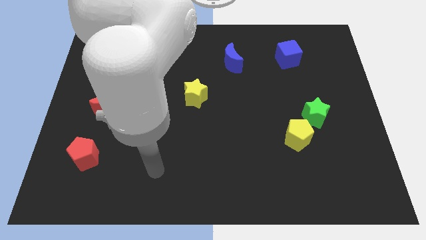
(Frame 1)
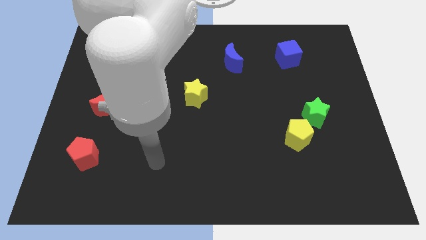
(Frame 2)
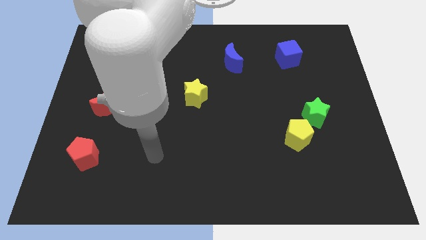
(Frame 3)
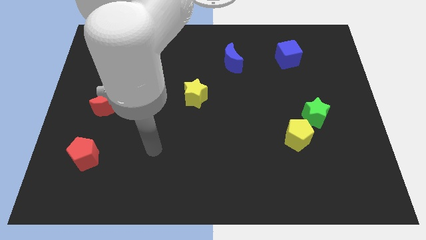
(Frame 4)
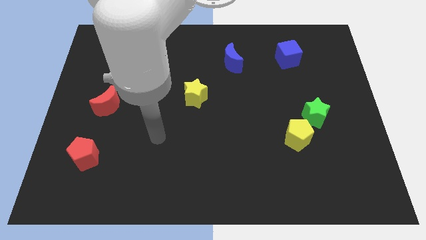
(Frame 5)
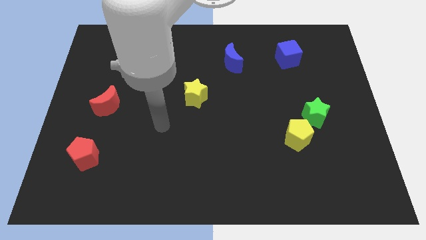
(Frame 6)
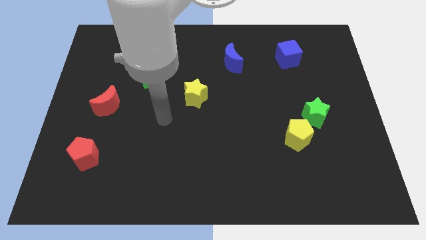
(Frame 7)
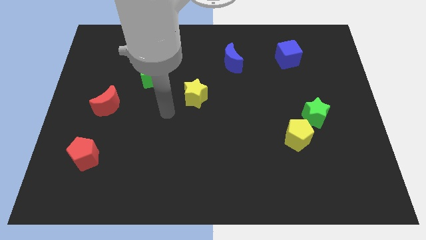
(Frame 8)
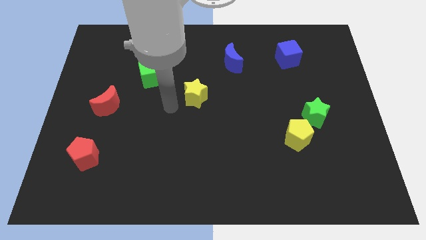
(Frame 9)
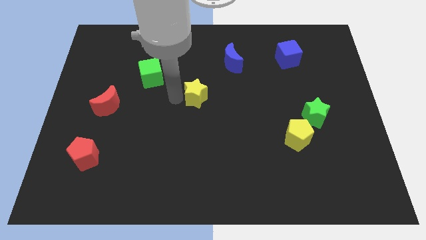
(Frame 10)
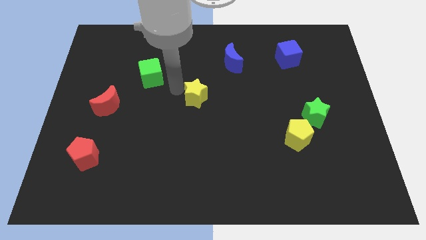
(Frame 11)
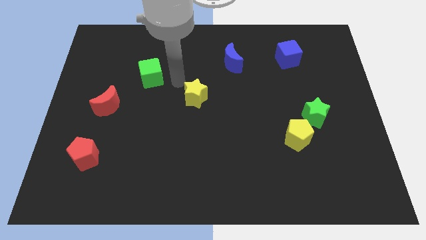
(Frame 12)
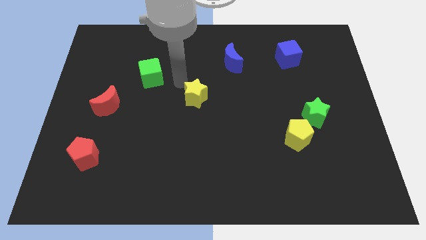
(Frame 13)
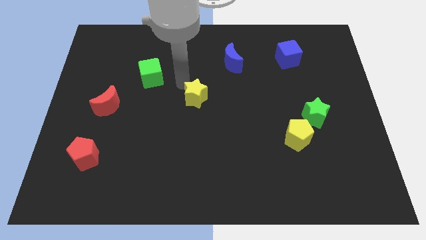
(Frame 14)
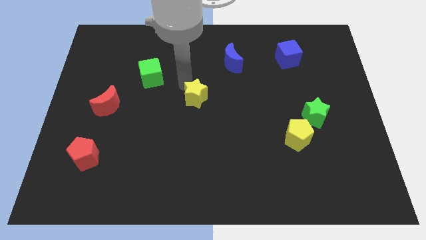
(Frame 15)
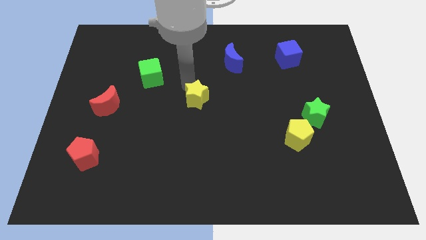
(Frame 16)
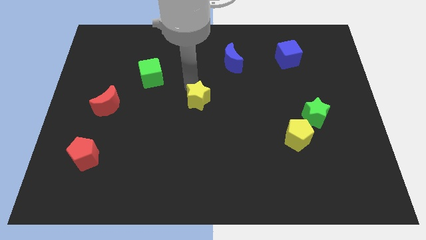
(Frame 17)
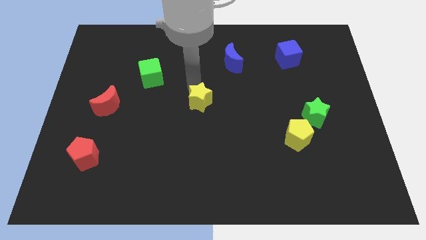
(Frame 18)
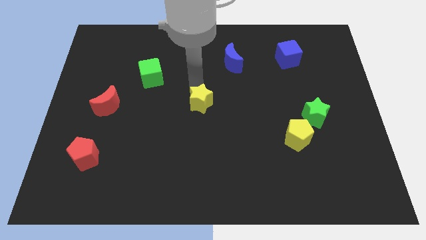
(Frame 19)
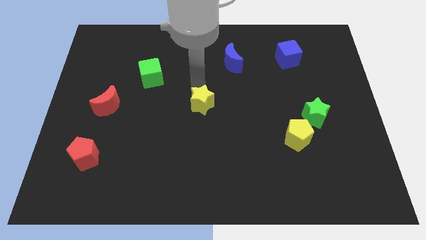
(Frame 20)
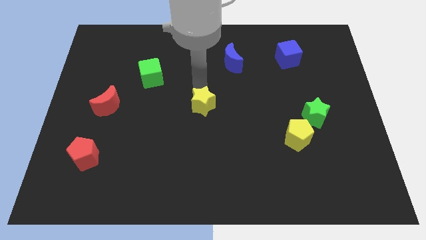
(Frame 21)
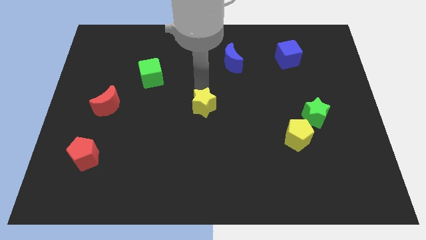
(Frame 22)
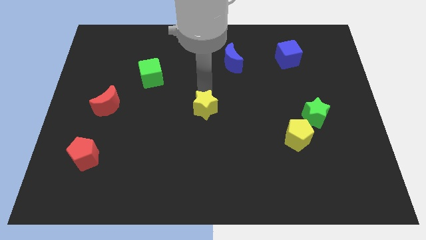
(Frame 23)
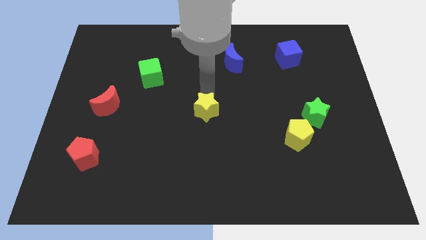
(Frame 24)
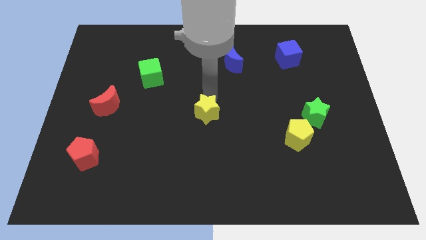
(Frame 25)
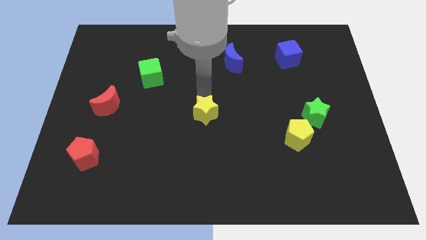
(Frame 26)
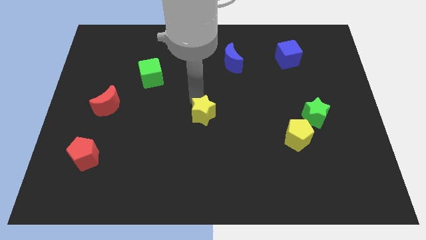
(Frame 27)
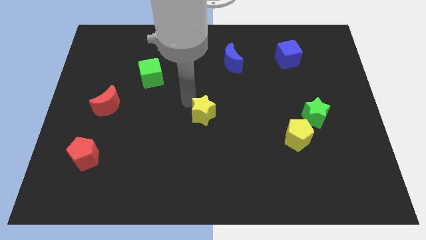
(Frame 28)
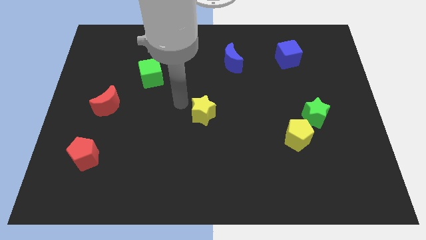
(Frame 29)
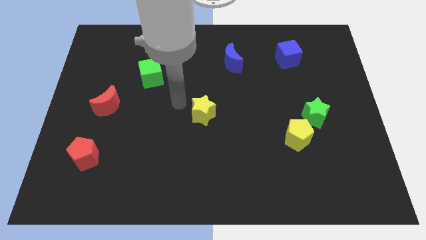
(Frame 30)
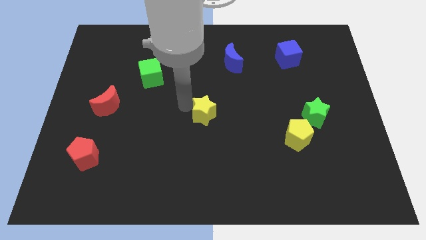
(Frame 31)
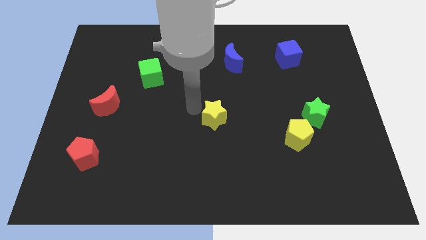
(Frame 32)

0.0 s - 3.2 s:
slightly slide the yellow star downwards and to the right diagonally

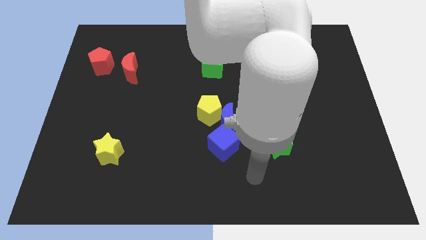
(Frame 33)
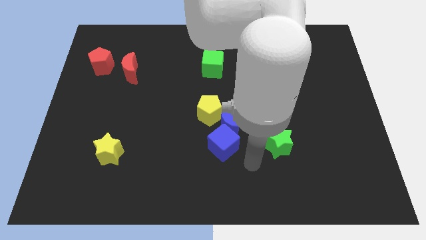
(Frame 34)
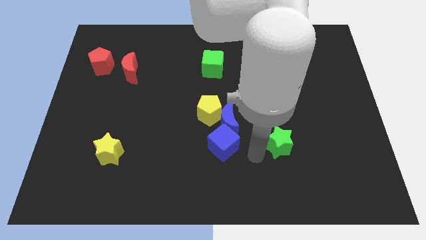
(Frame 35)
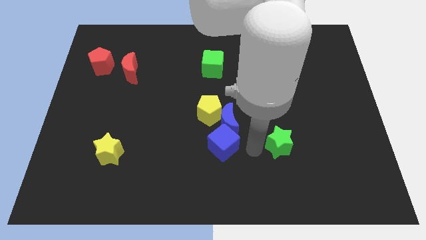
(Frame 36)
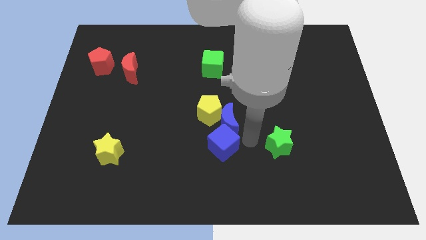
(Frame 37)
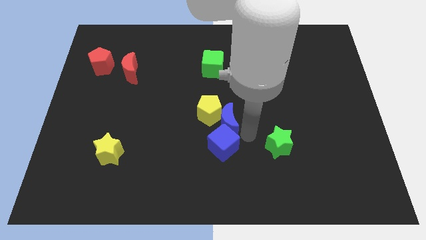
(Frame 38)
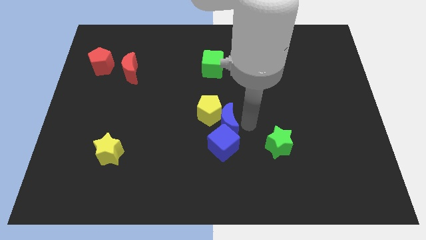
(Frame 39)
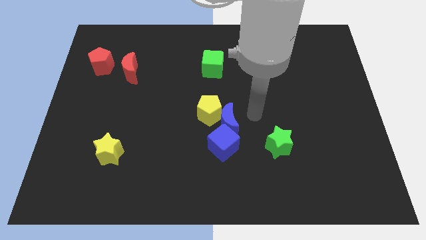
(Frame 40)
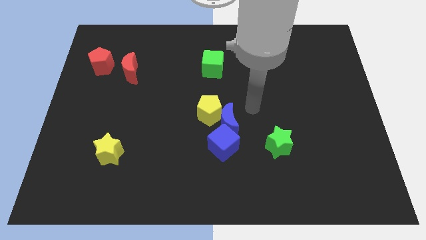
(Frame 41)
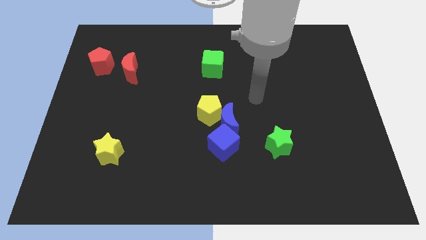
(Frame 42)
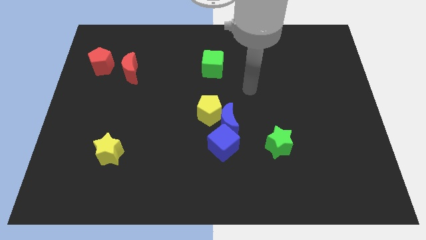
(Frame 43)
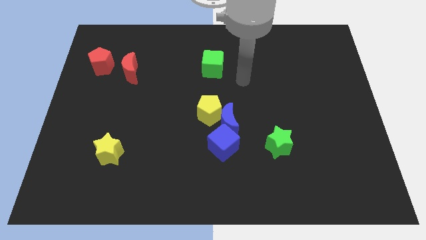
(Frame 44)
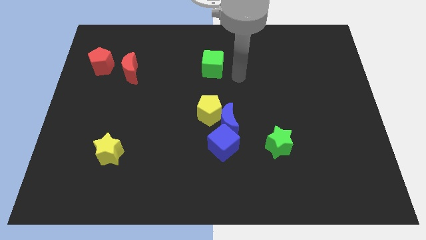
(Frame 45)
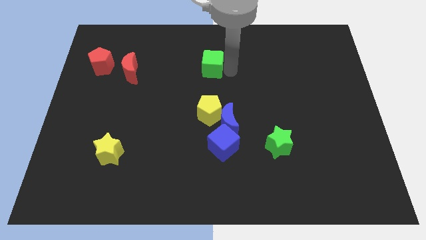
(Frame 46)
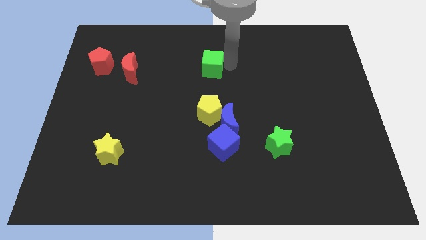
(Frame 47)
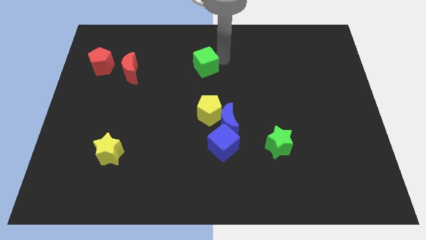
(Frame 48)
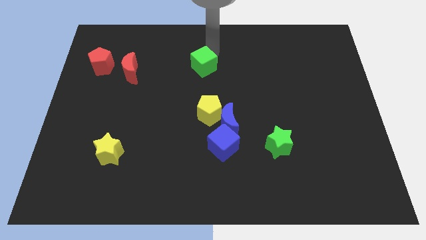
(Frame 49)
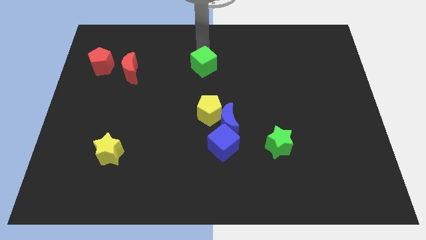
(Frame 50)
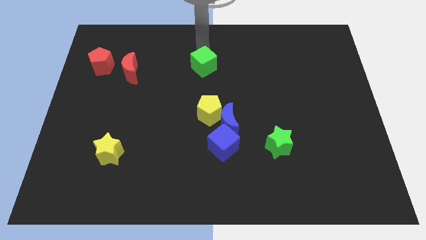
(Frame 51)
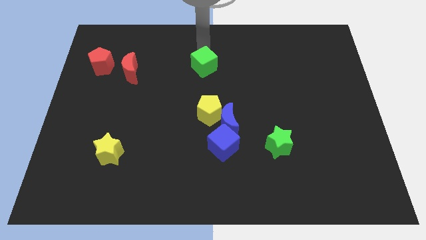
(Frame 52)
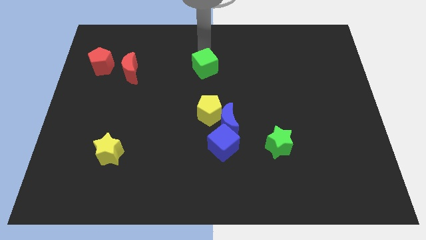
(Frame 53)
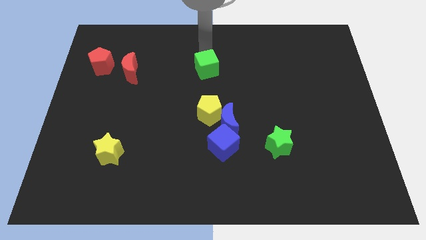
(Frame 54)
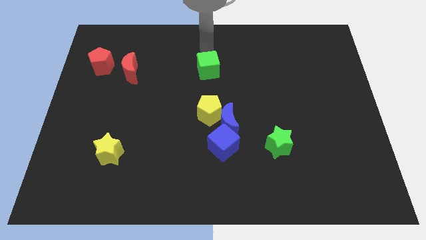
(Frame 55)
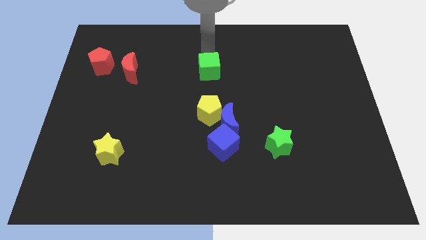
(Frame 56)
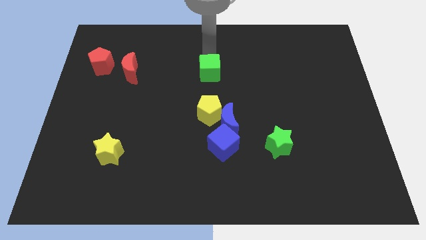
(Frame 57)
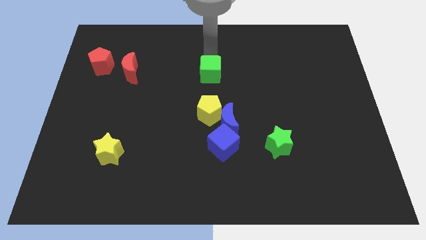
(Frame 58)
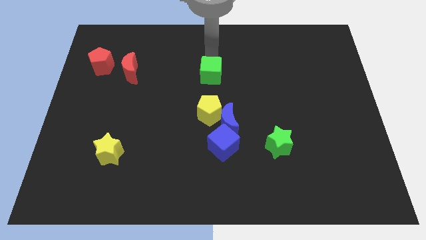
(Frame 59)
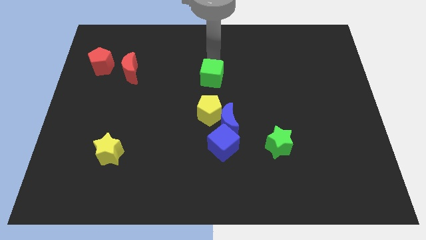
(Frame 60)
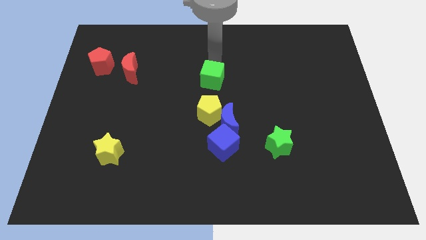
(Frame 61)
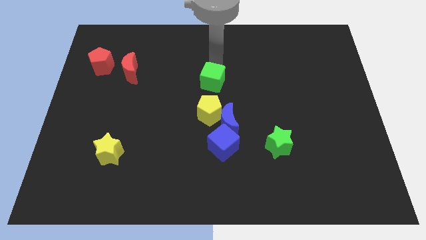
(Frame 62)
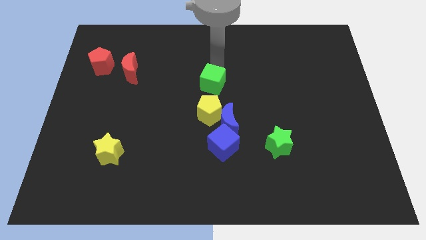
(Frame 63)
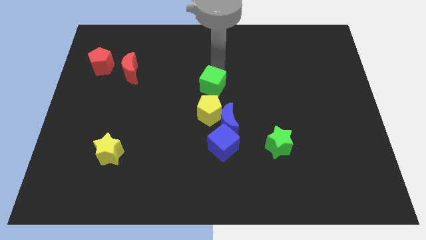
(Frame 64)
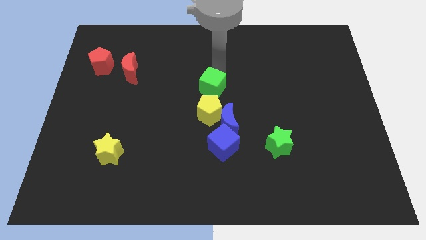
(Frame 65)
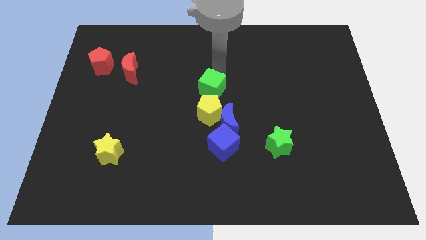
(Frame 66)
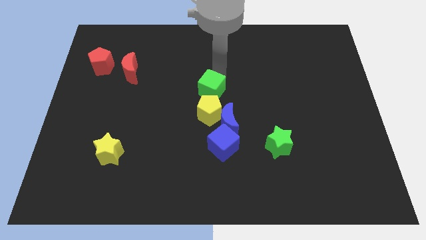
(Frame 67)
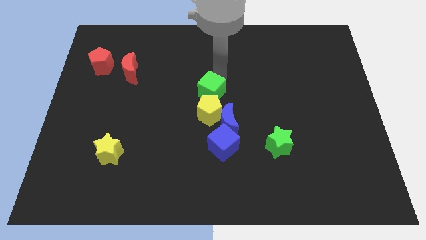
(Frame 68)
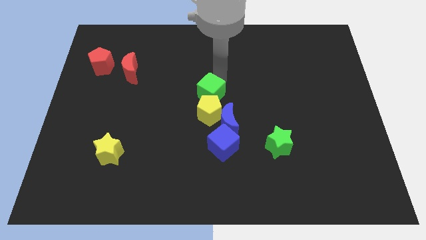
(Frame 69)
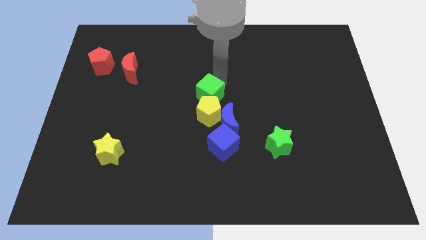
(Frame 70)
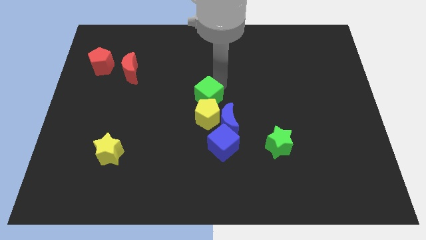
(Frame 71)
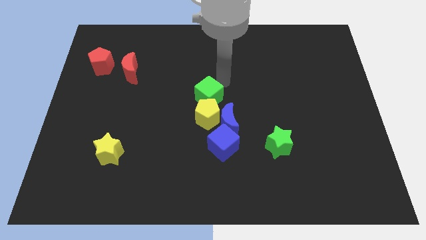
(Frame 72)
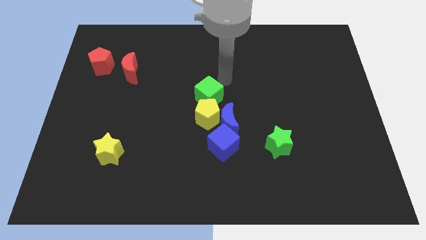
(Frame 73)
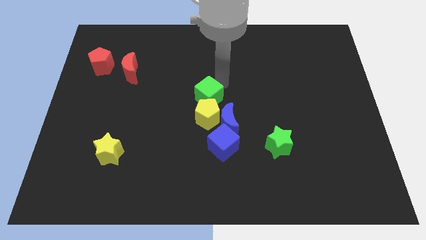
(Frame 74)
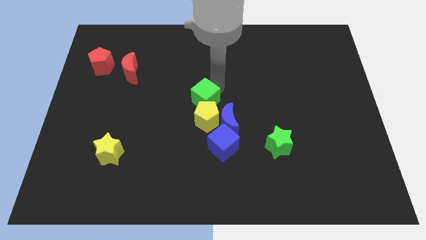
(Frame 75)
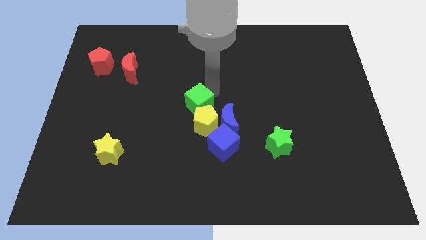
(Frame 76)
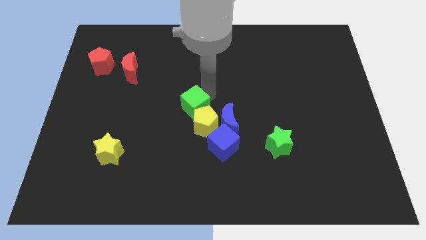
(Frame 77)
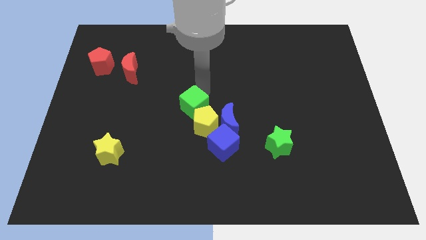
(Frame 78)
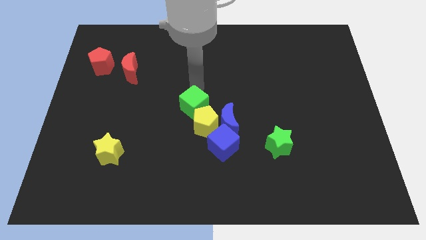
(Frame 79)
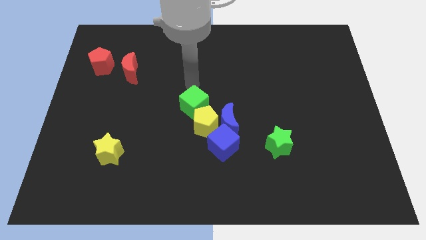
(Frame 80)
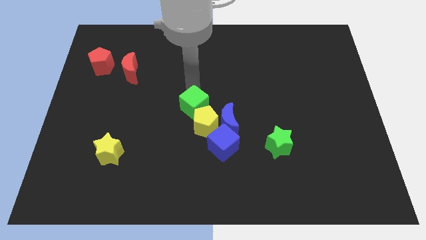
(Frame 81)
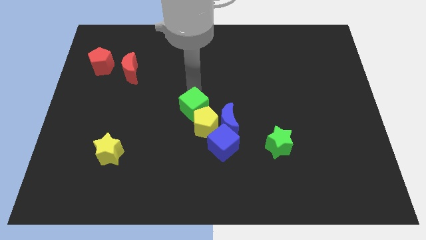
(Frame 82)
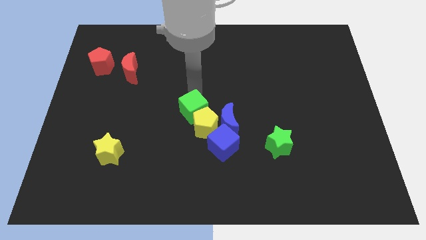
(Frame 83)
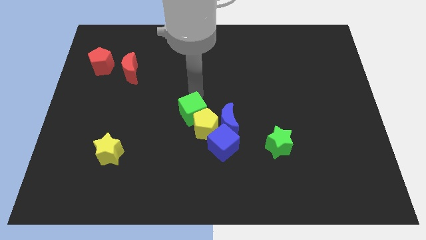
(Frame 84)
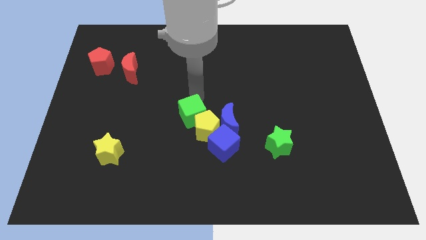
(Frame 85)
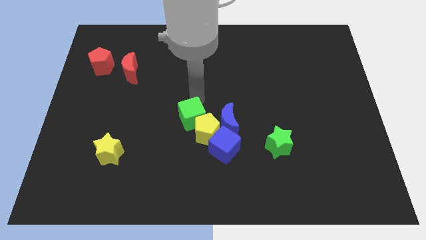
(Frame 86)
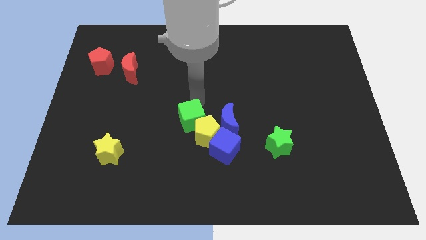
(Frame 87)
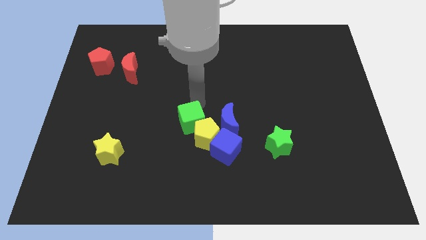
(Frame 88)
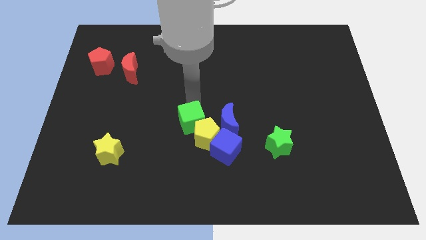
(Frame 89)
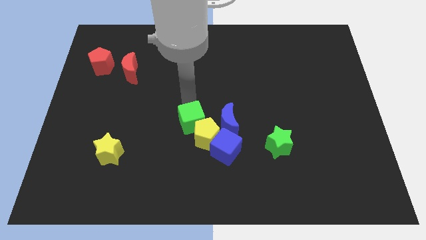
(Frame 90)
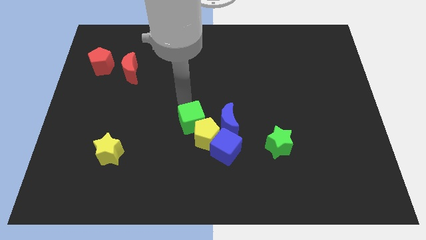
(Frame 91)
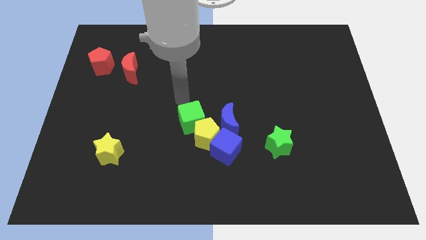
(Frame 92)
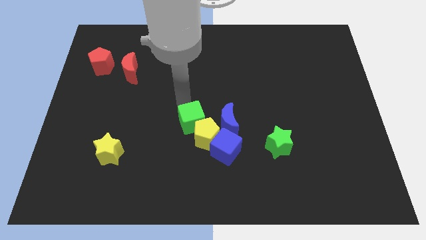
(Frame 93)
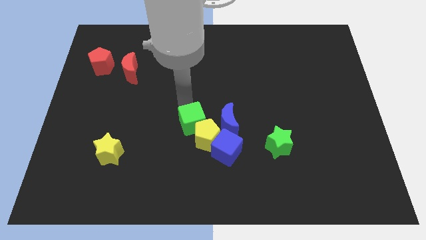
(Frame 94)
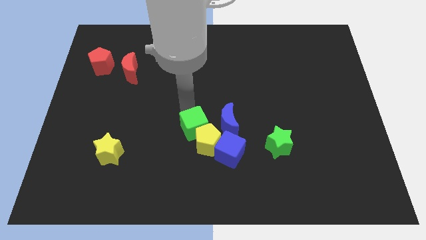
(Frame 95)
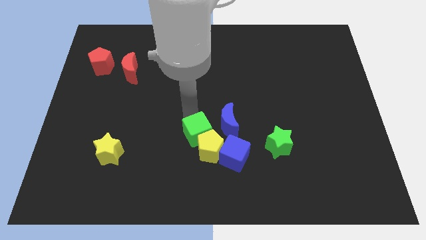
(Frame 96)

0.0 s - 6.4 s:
slide the green cube downwards
